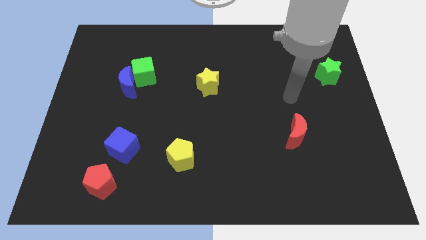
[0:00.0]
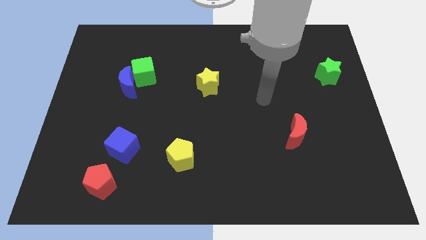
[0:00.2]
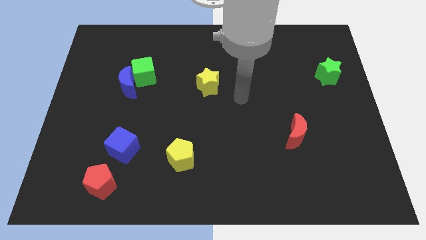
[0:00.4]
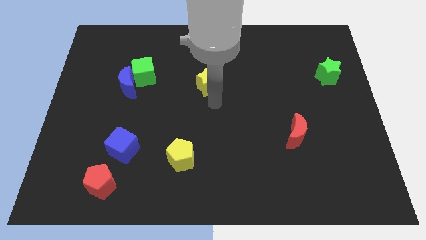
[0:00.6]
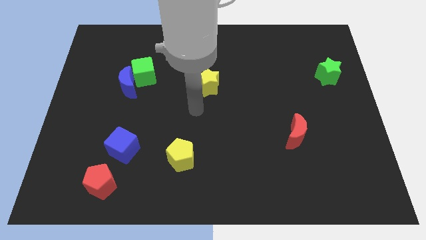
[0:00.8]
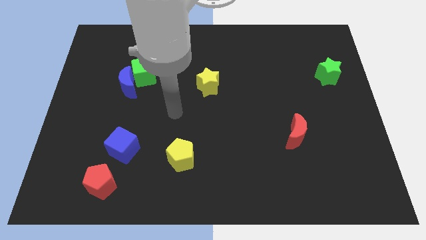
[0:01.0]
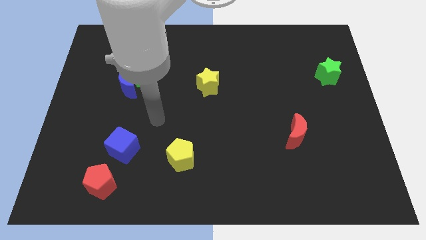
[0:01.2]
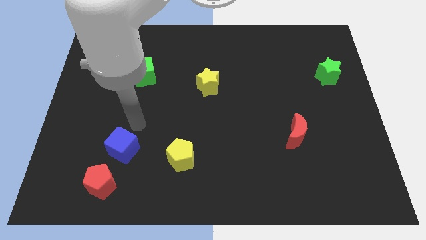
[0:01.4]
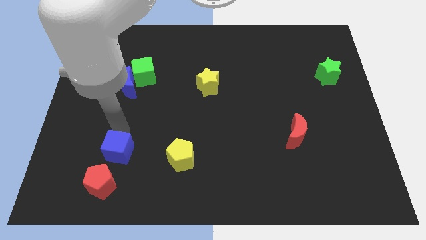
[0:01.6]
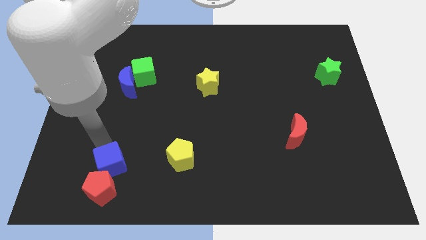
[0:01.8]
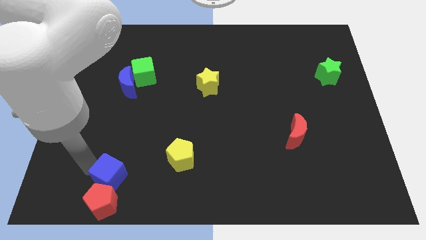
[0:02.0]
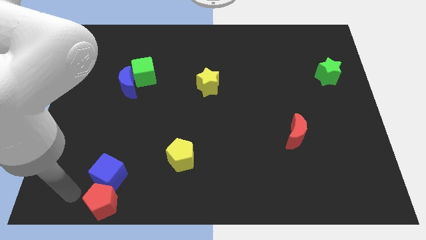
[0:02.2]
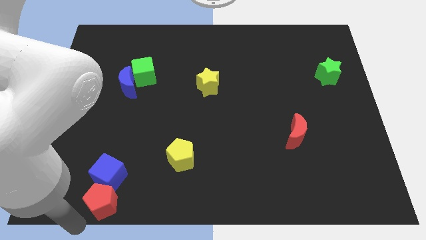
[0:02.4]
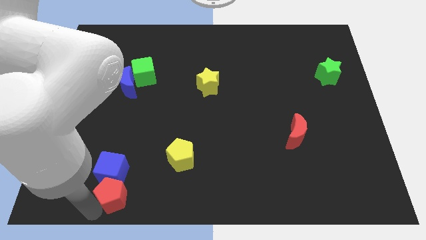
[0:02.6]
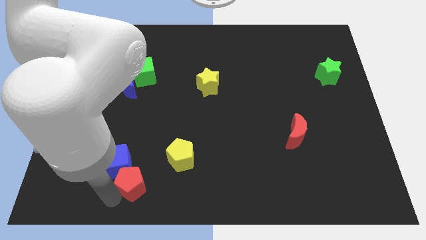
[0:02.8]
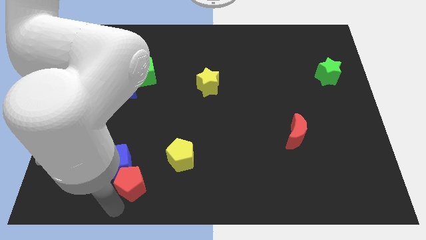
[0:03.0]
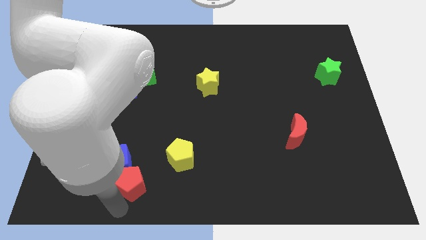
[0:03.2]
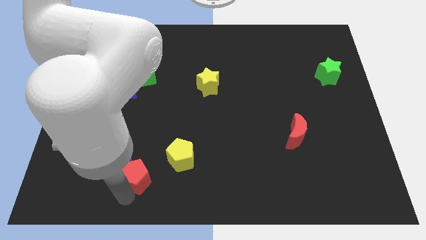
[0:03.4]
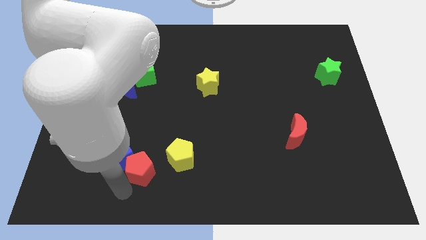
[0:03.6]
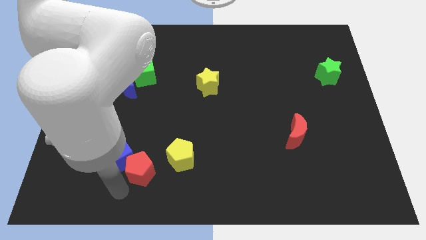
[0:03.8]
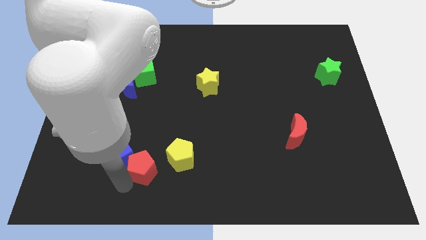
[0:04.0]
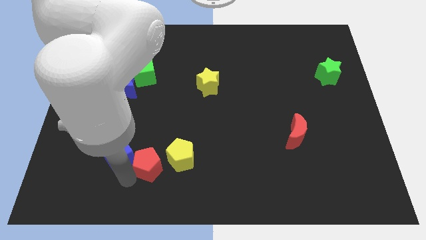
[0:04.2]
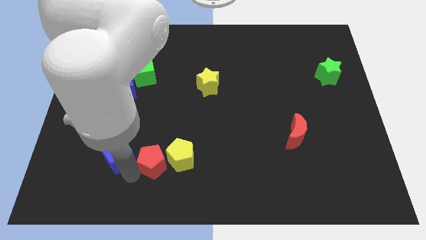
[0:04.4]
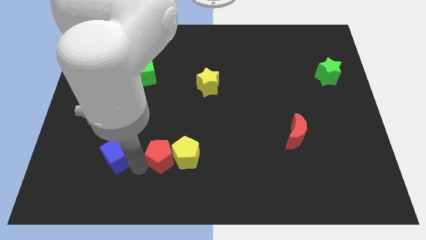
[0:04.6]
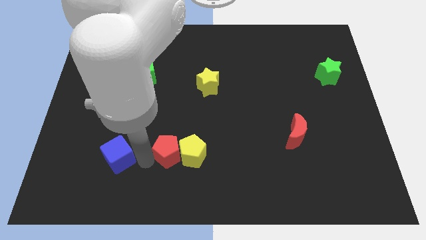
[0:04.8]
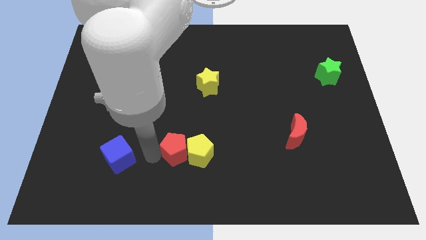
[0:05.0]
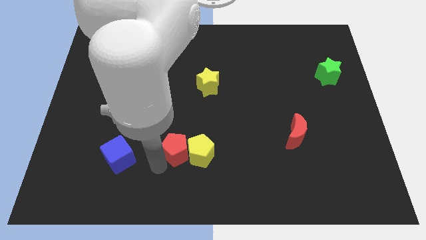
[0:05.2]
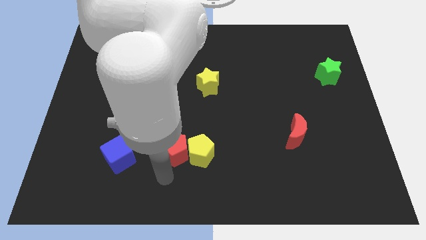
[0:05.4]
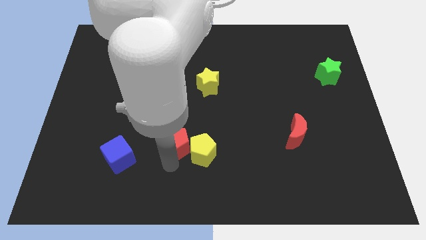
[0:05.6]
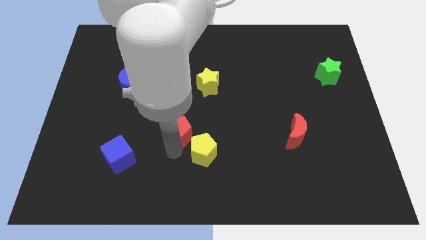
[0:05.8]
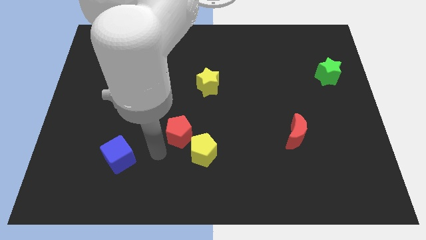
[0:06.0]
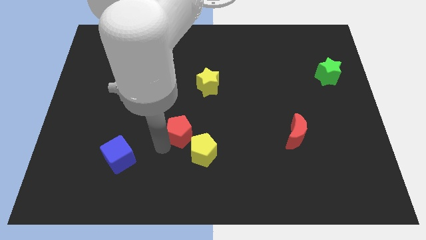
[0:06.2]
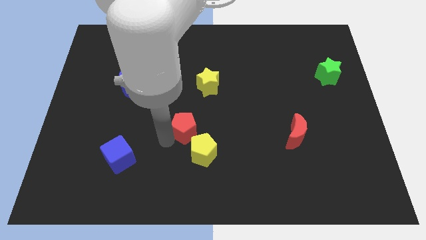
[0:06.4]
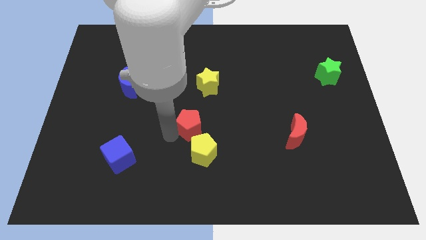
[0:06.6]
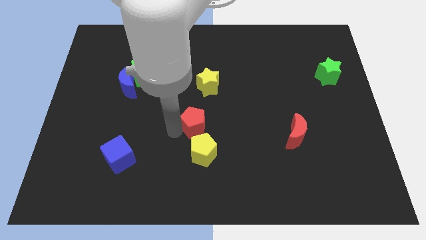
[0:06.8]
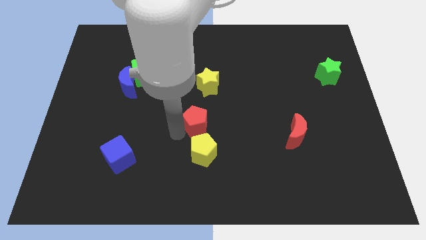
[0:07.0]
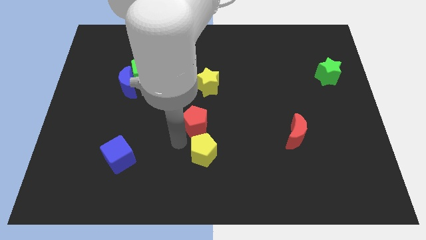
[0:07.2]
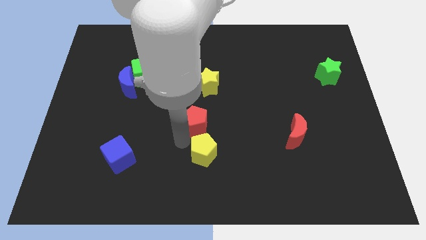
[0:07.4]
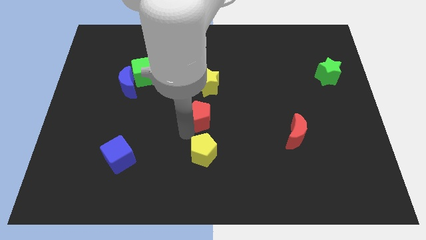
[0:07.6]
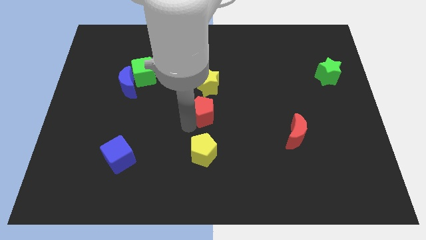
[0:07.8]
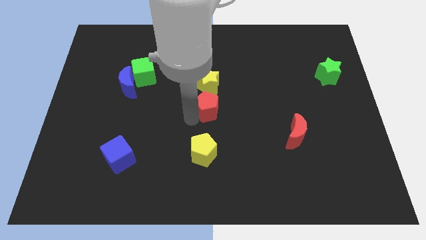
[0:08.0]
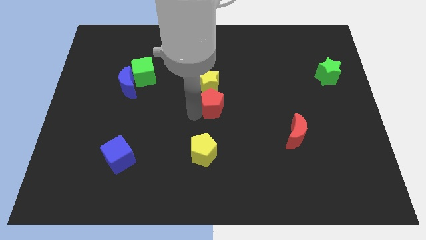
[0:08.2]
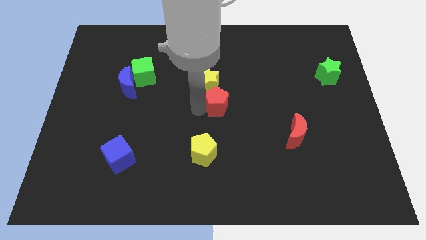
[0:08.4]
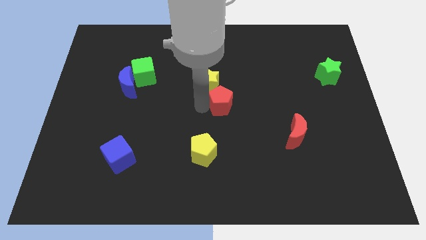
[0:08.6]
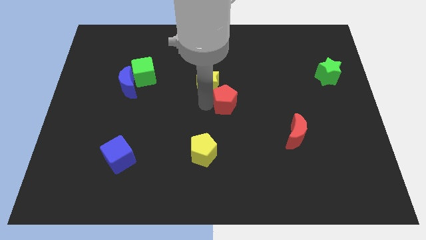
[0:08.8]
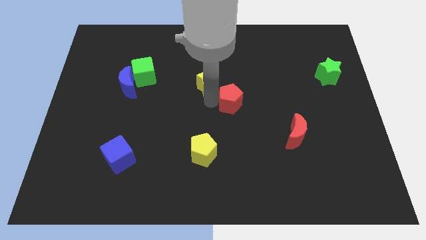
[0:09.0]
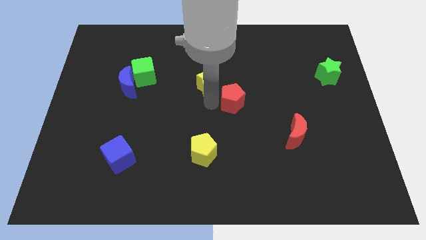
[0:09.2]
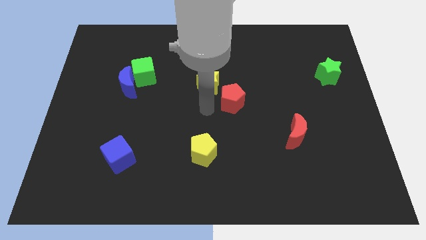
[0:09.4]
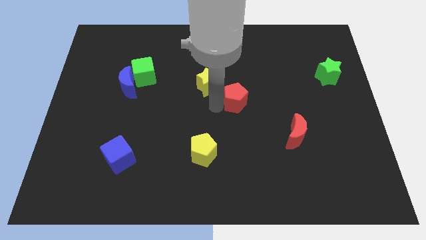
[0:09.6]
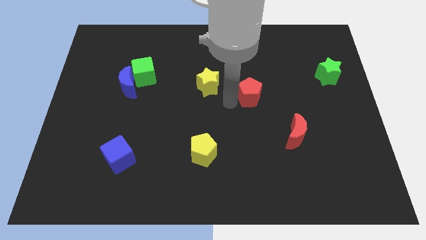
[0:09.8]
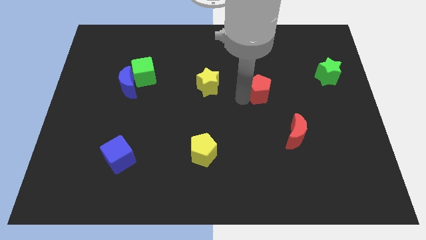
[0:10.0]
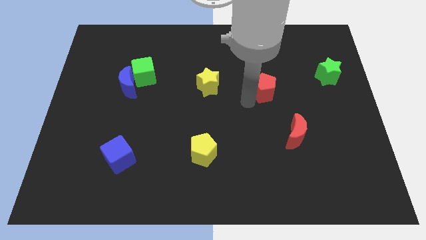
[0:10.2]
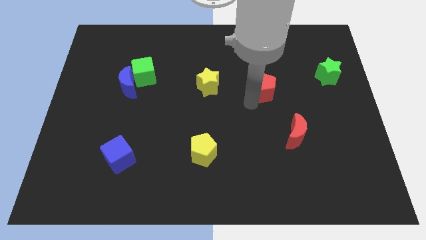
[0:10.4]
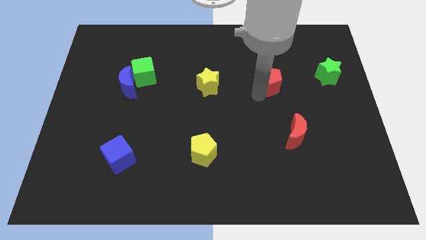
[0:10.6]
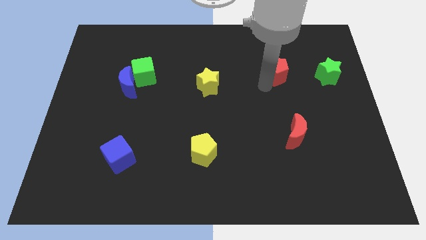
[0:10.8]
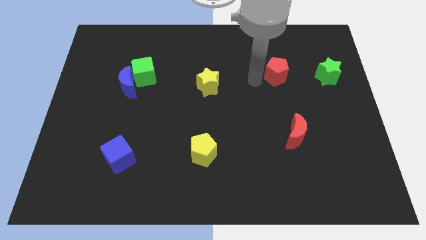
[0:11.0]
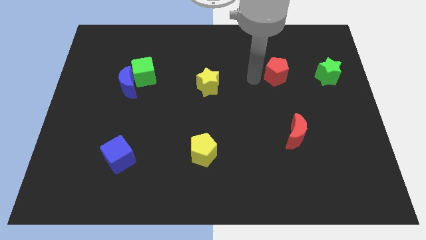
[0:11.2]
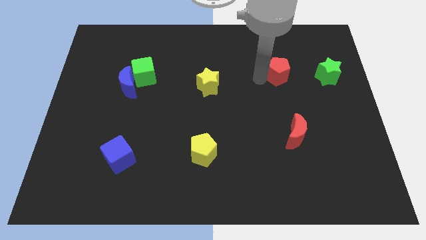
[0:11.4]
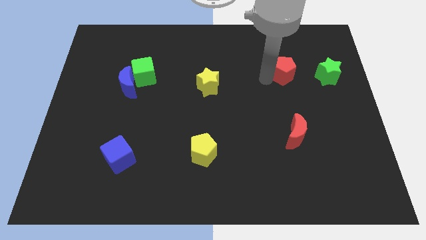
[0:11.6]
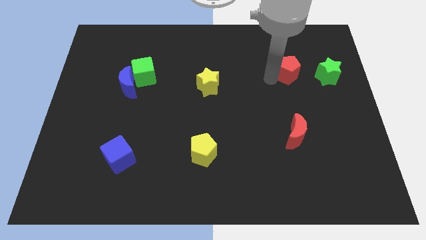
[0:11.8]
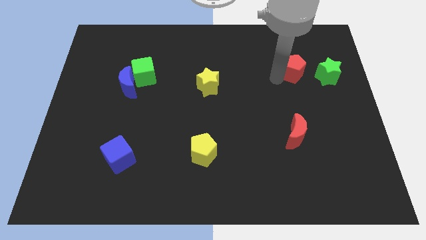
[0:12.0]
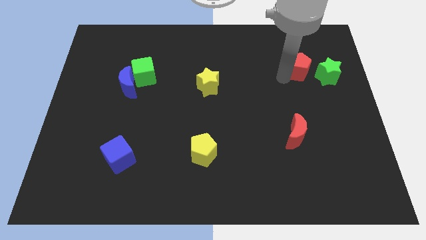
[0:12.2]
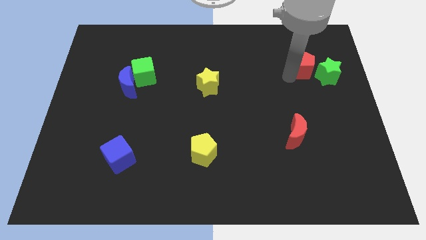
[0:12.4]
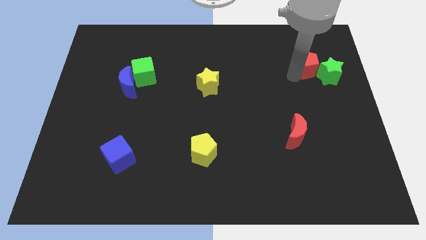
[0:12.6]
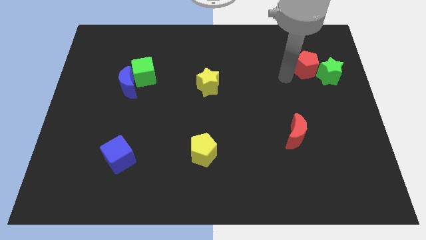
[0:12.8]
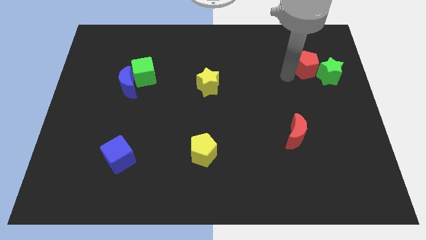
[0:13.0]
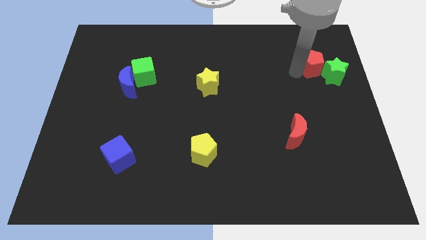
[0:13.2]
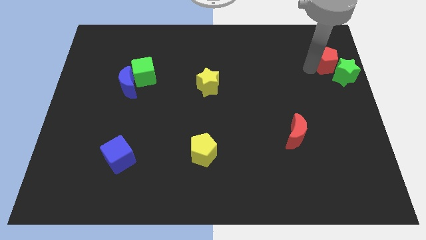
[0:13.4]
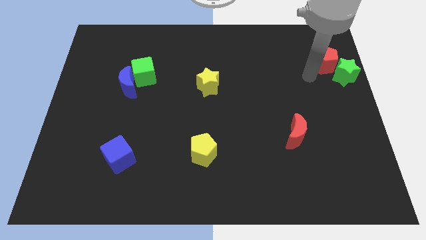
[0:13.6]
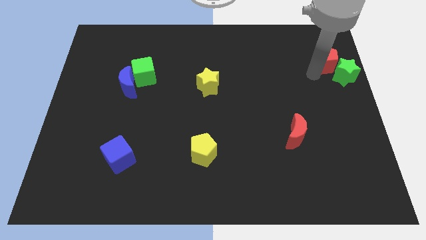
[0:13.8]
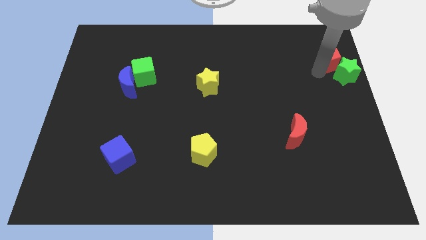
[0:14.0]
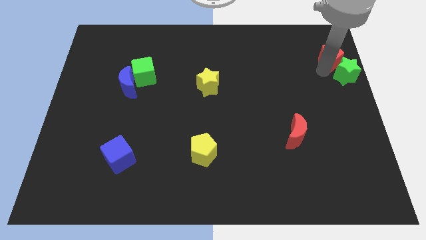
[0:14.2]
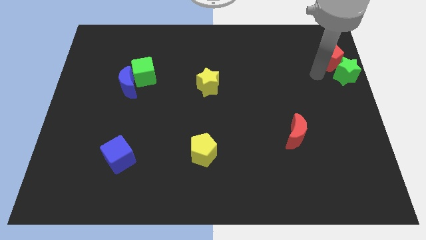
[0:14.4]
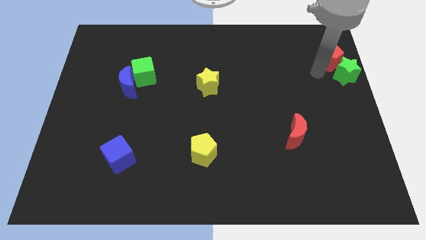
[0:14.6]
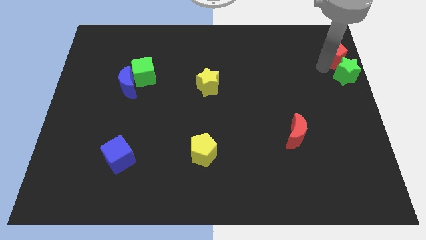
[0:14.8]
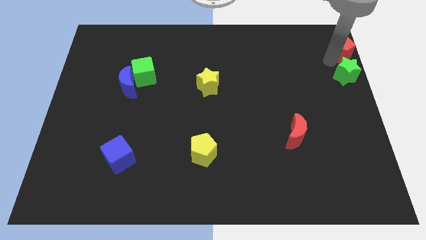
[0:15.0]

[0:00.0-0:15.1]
put the red pentagon to the top right corner
